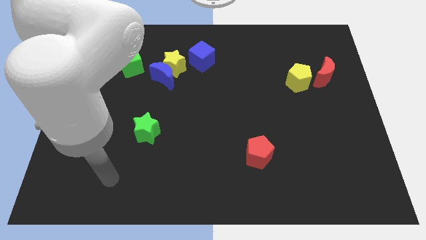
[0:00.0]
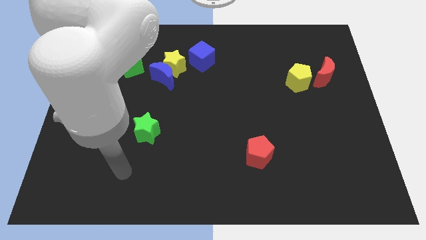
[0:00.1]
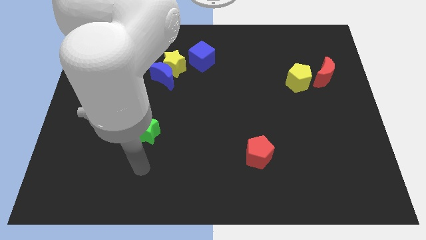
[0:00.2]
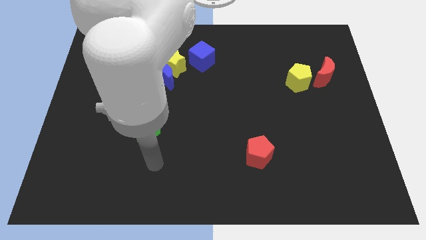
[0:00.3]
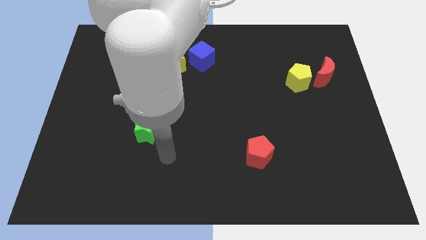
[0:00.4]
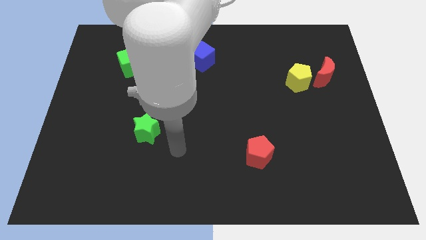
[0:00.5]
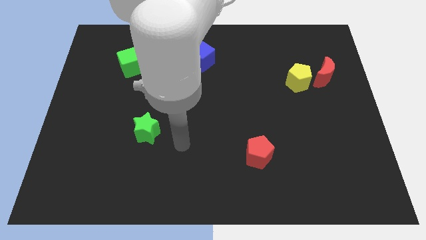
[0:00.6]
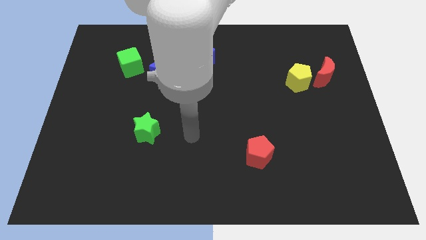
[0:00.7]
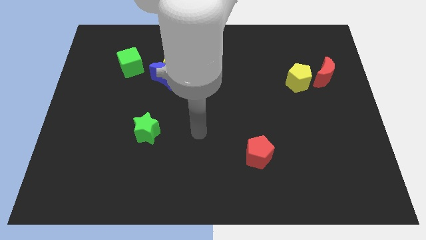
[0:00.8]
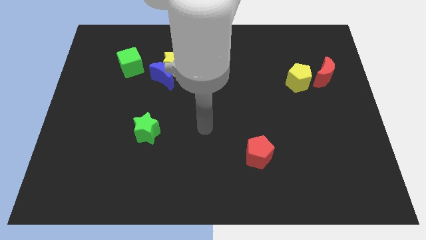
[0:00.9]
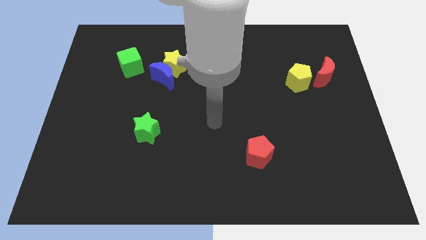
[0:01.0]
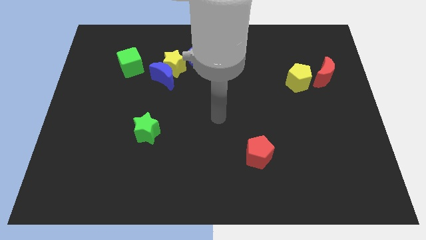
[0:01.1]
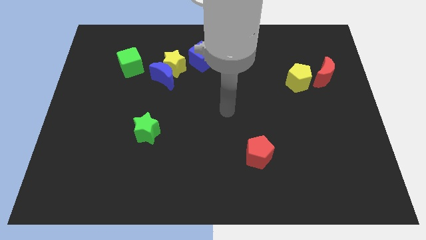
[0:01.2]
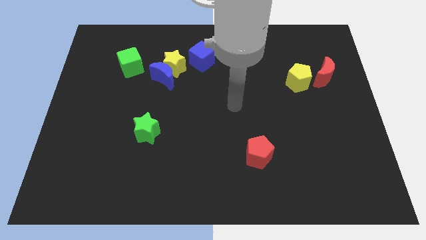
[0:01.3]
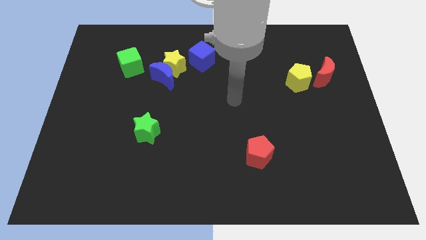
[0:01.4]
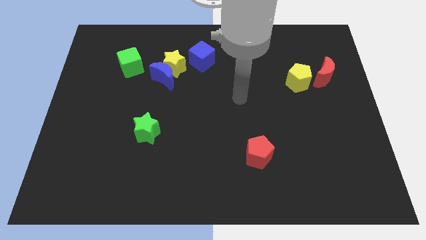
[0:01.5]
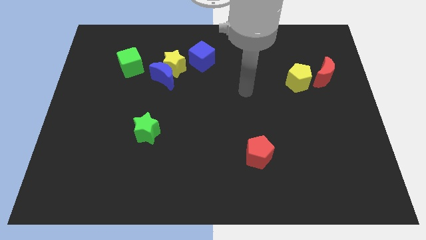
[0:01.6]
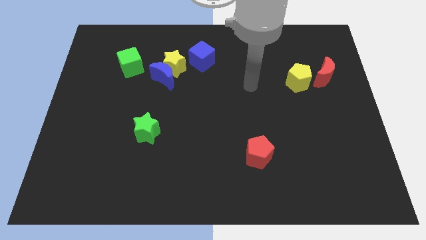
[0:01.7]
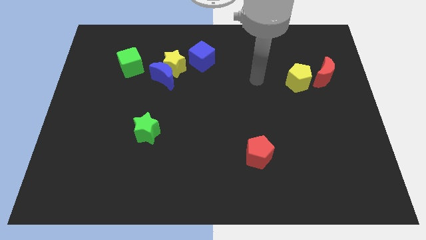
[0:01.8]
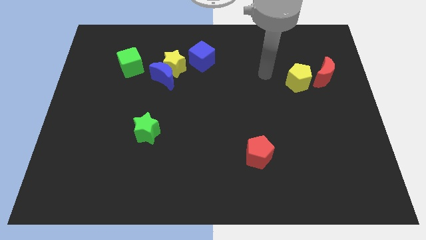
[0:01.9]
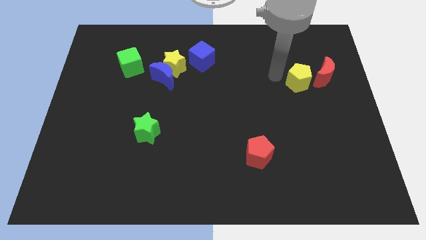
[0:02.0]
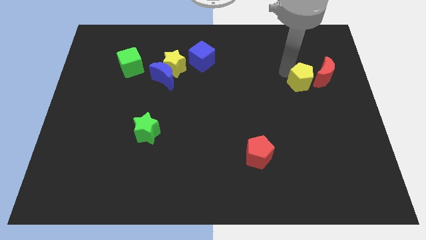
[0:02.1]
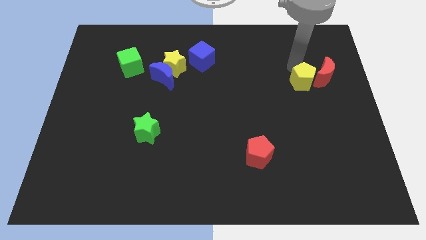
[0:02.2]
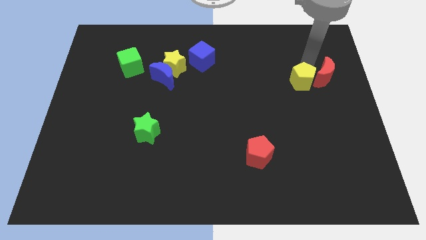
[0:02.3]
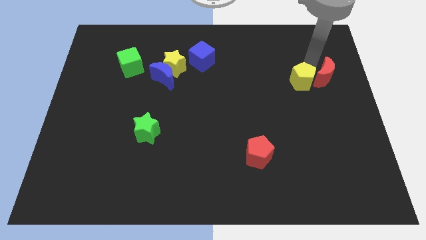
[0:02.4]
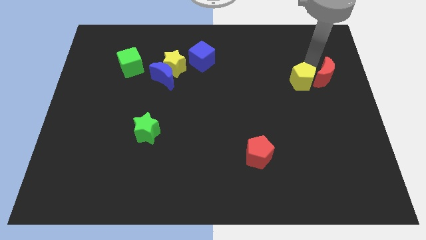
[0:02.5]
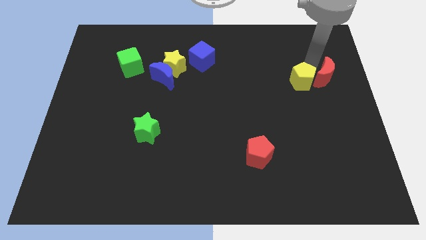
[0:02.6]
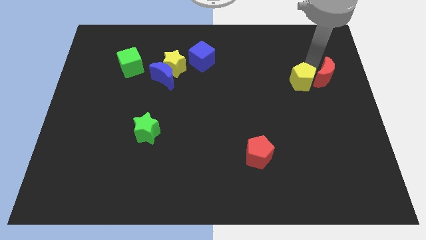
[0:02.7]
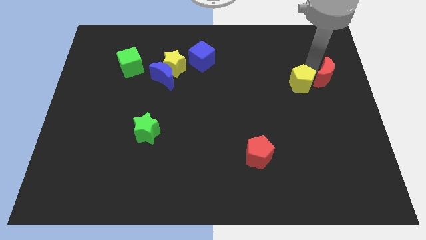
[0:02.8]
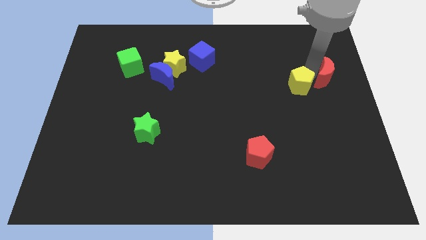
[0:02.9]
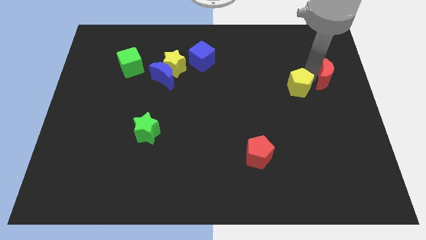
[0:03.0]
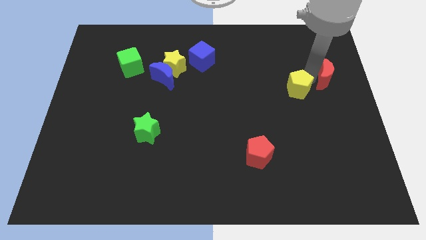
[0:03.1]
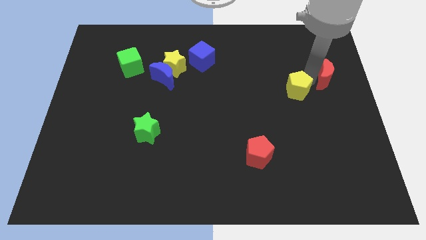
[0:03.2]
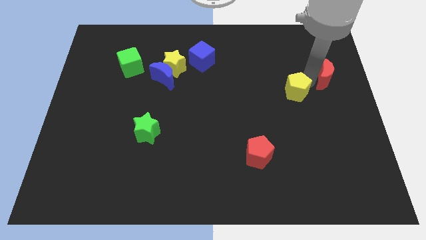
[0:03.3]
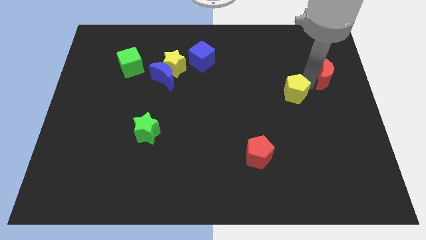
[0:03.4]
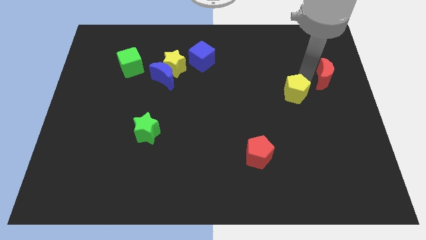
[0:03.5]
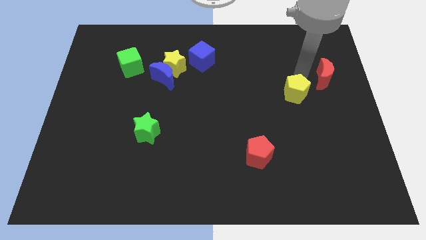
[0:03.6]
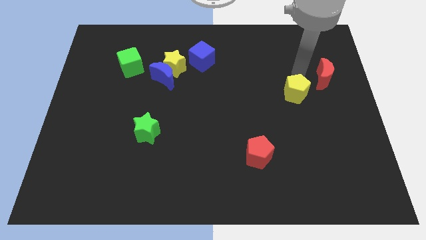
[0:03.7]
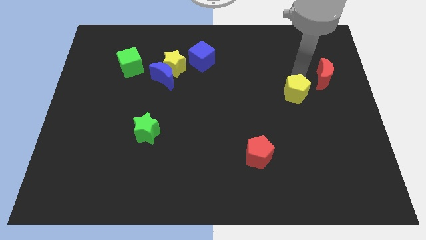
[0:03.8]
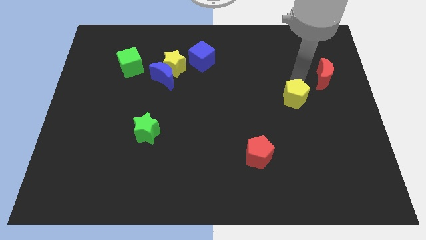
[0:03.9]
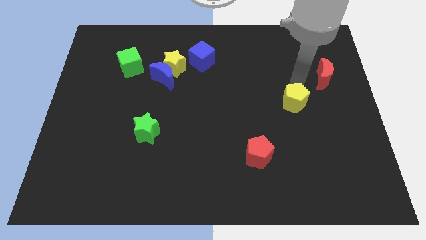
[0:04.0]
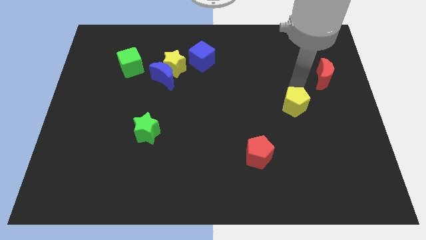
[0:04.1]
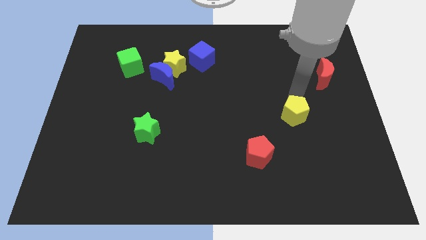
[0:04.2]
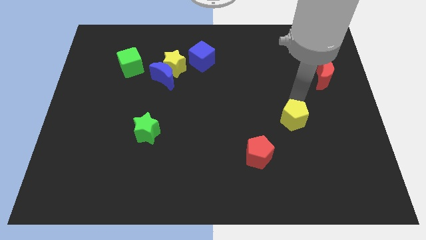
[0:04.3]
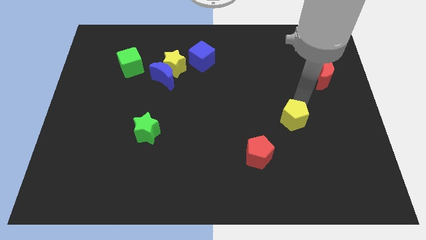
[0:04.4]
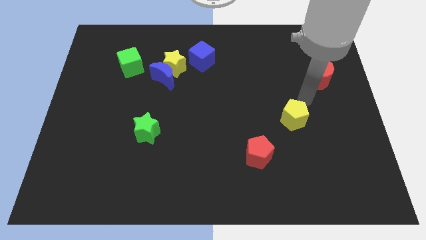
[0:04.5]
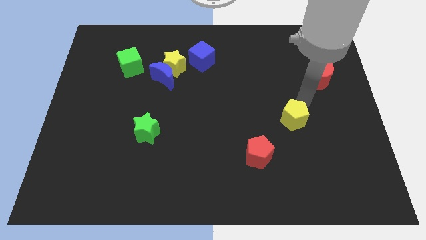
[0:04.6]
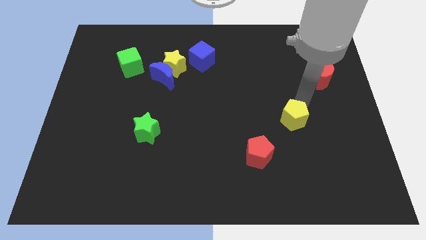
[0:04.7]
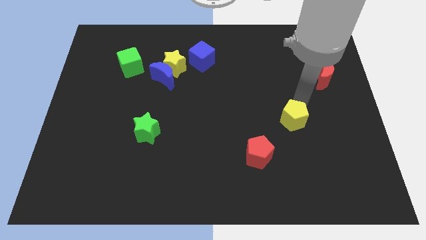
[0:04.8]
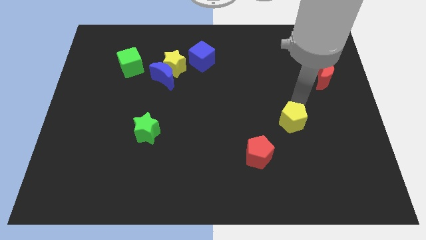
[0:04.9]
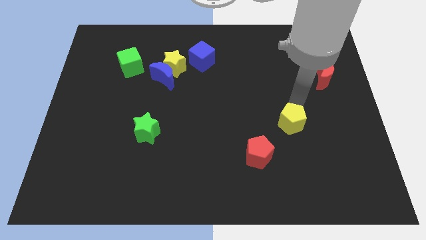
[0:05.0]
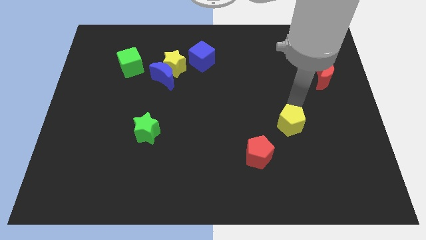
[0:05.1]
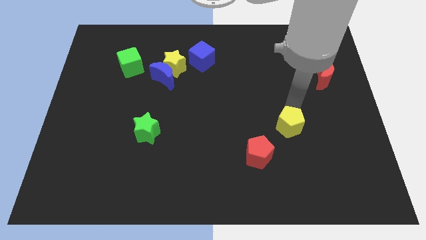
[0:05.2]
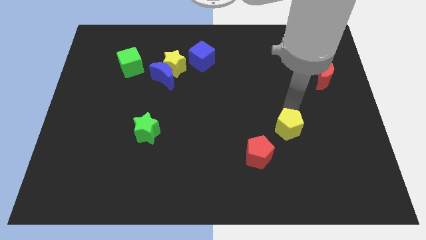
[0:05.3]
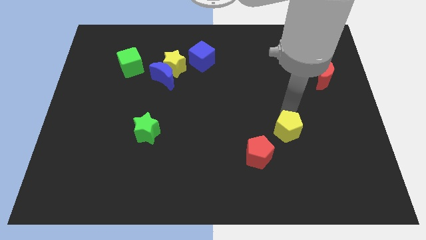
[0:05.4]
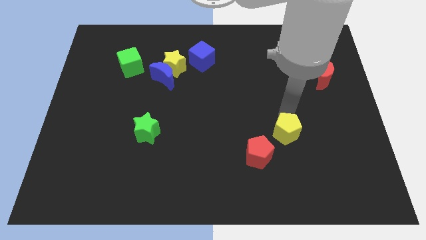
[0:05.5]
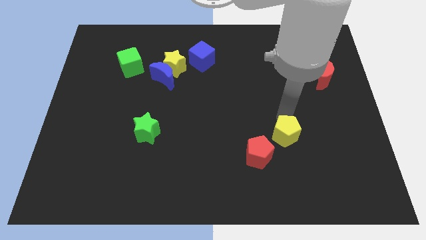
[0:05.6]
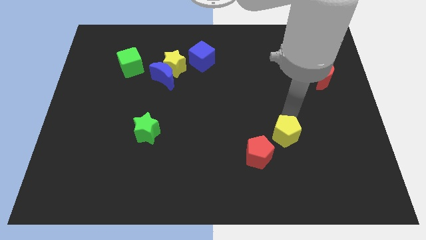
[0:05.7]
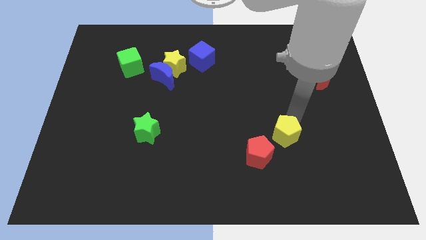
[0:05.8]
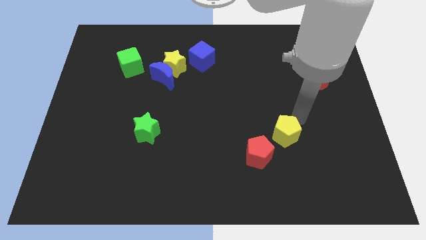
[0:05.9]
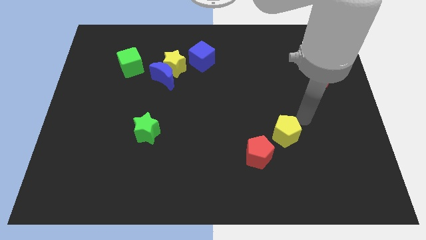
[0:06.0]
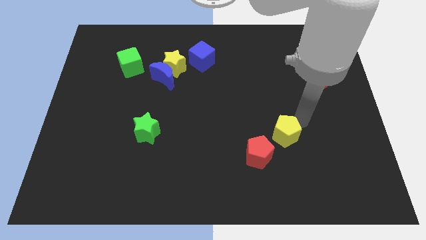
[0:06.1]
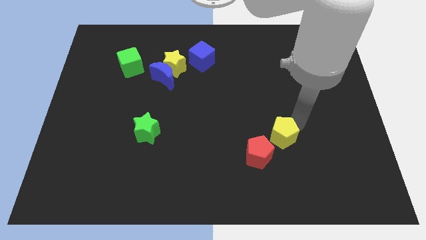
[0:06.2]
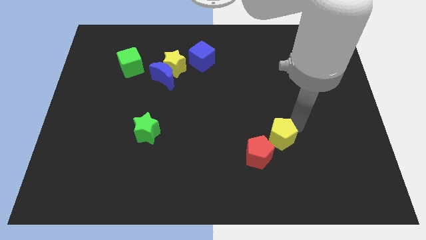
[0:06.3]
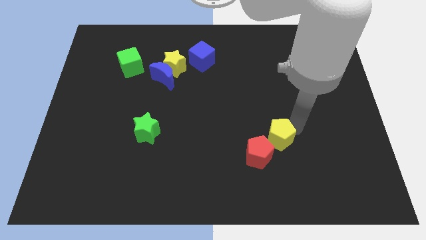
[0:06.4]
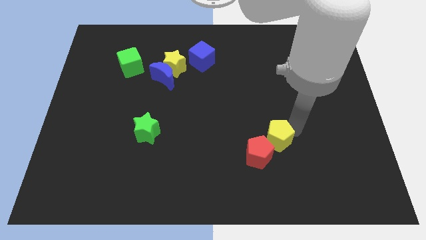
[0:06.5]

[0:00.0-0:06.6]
slide the yellow pentagon close to the red pentagon

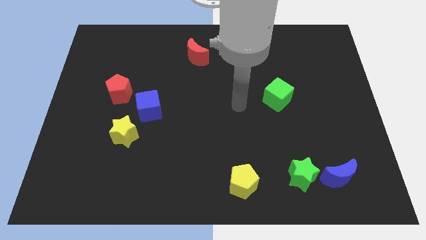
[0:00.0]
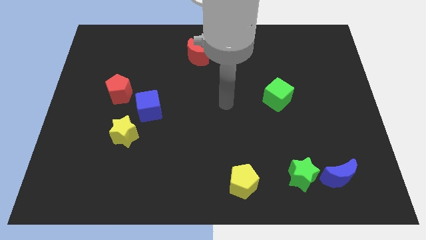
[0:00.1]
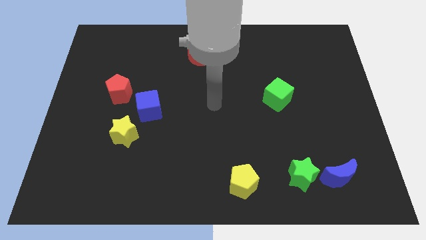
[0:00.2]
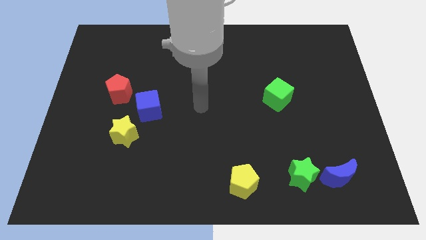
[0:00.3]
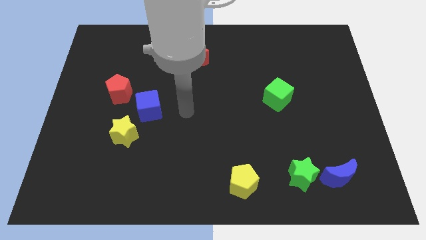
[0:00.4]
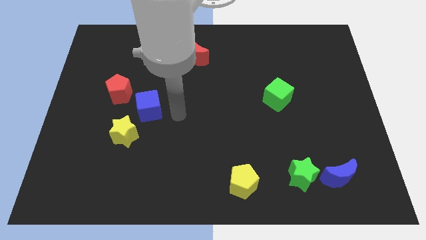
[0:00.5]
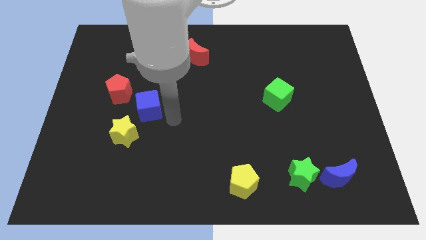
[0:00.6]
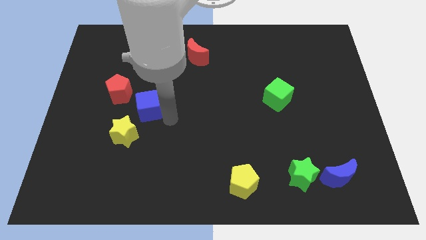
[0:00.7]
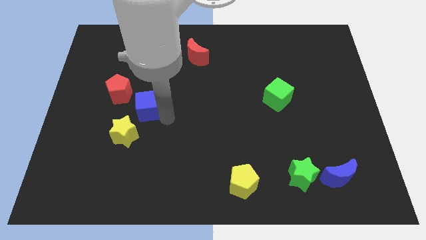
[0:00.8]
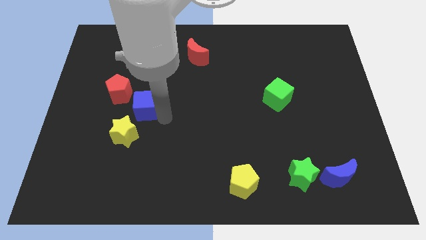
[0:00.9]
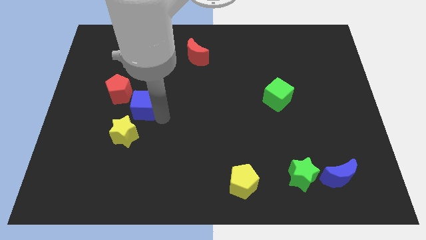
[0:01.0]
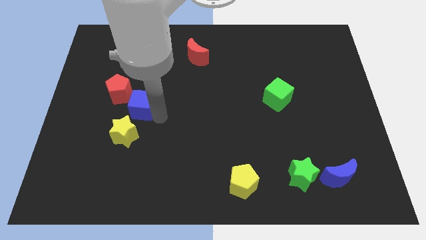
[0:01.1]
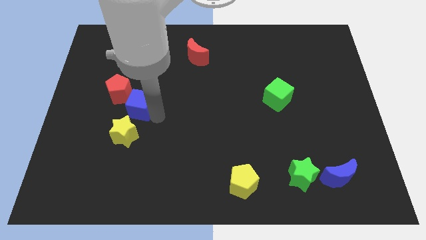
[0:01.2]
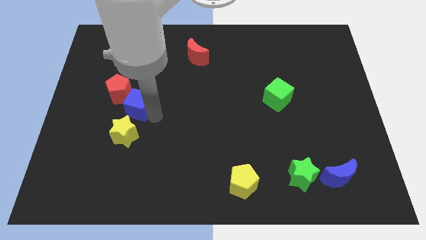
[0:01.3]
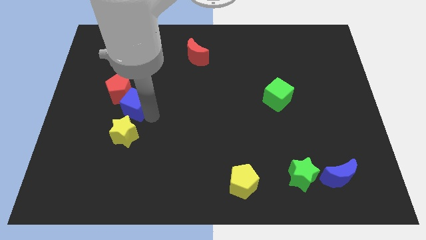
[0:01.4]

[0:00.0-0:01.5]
move the blue cube to the red pentagon
